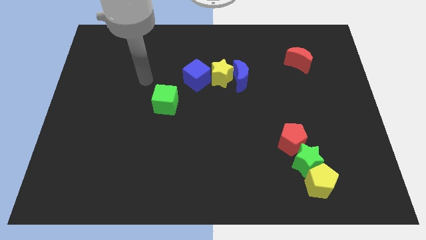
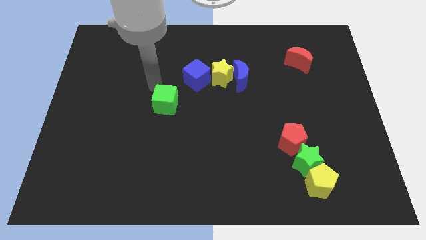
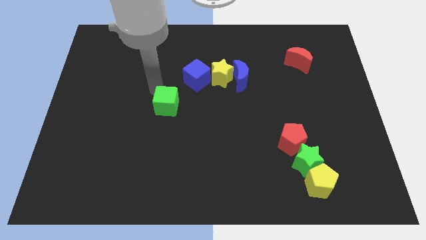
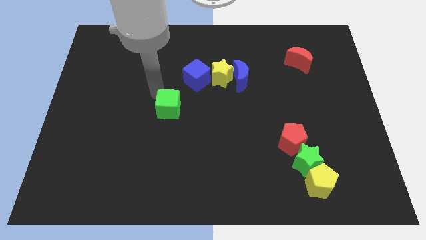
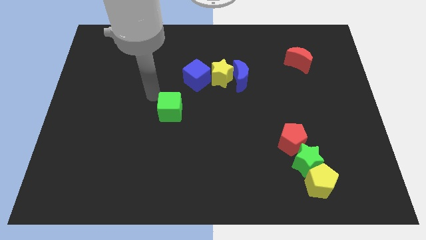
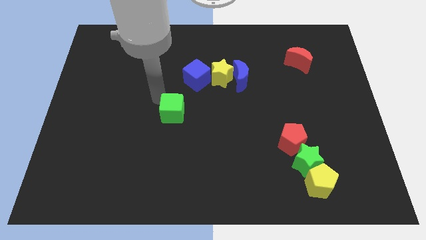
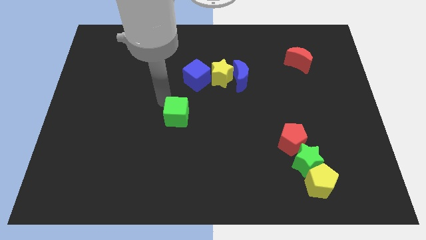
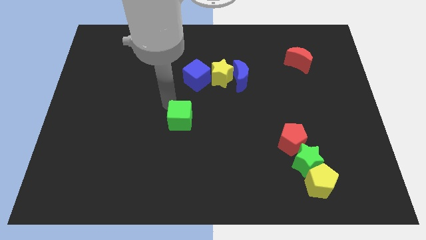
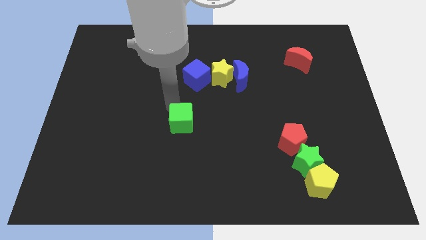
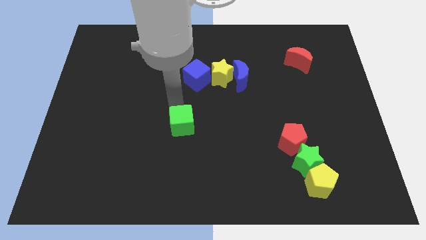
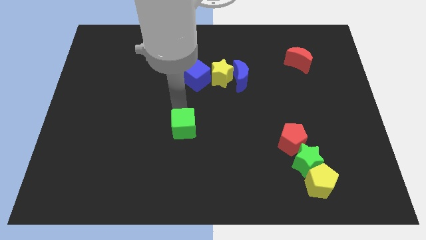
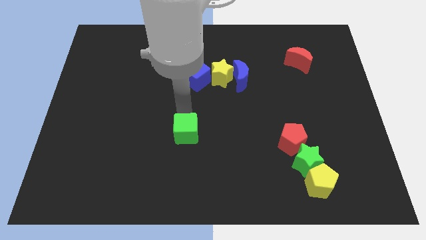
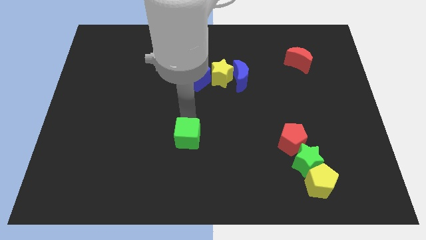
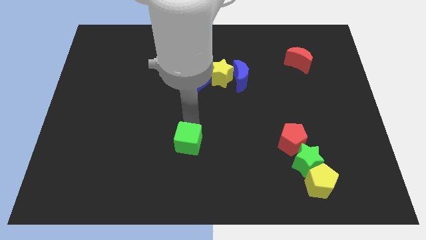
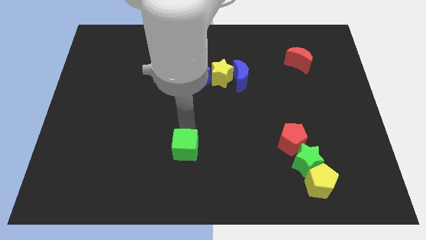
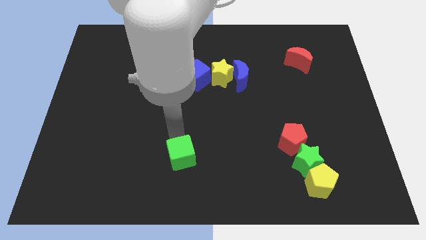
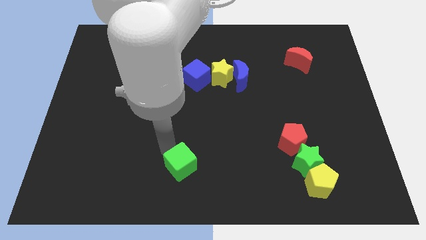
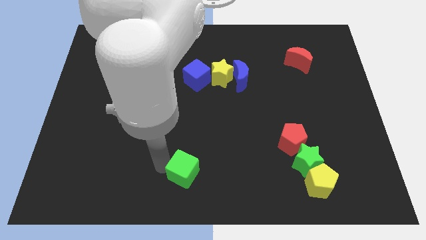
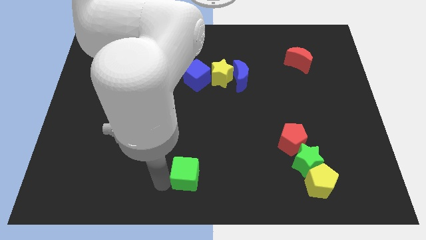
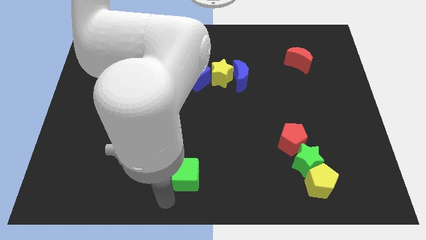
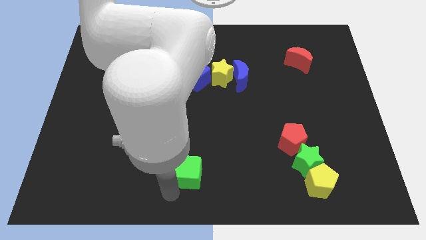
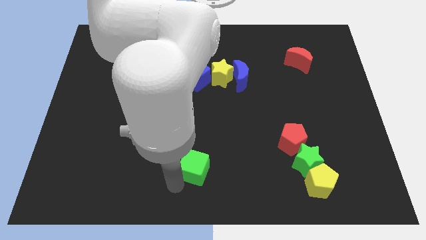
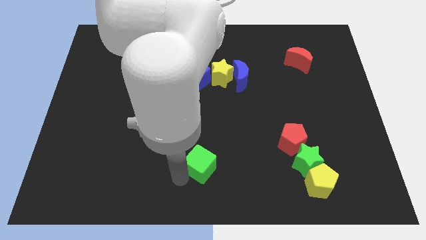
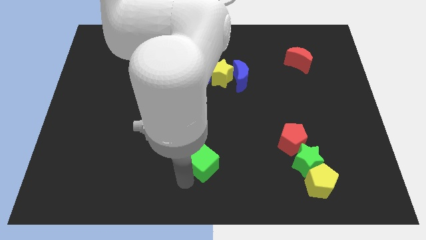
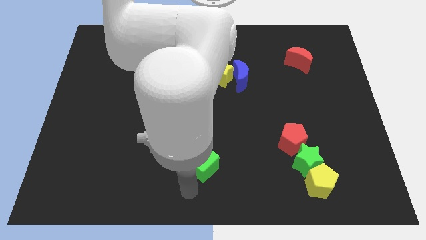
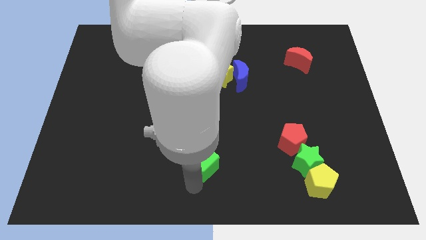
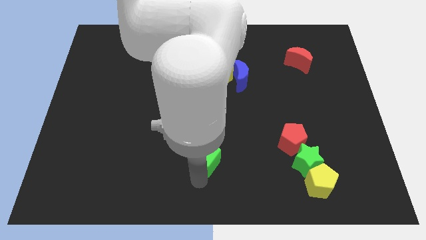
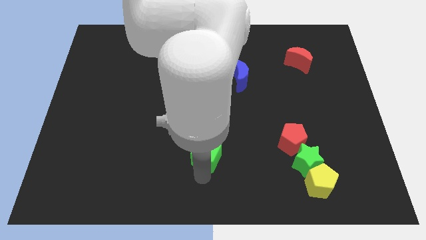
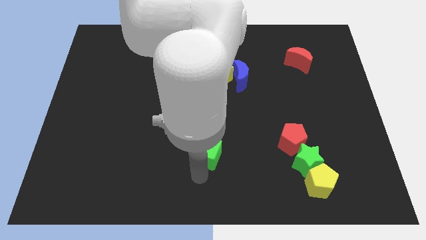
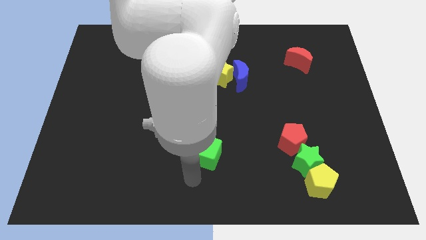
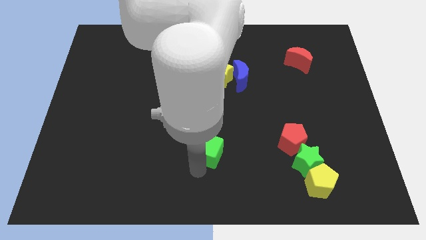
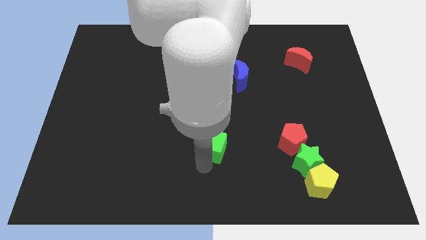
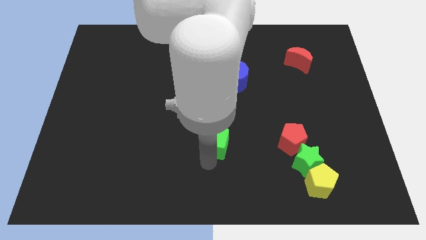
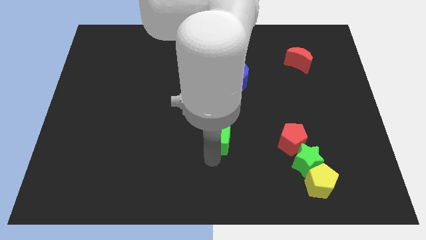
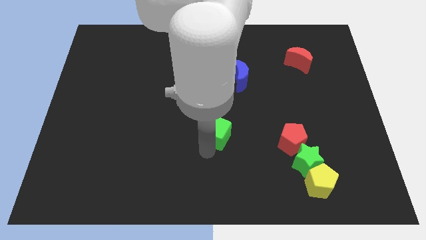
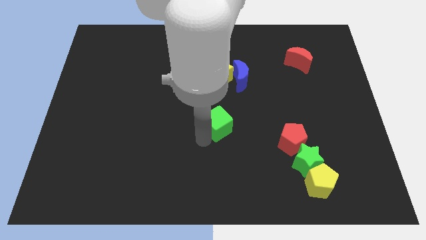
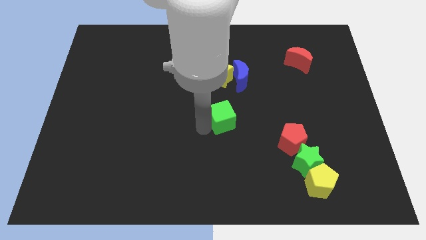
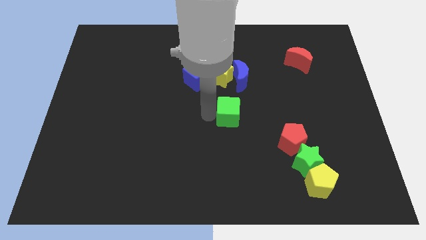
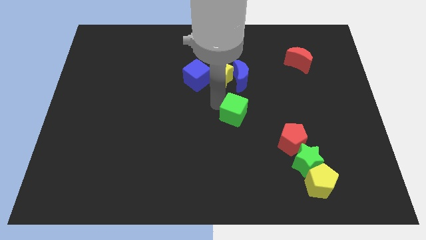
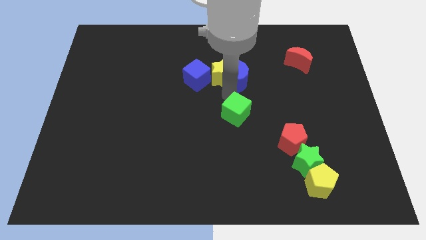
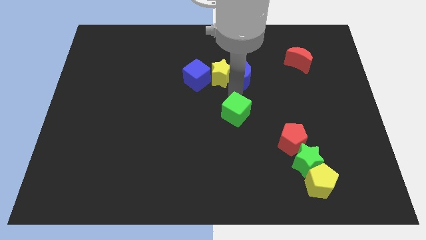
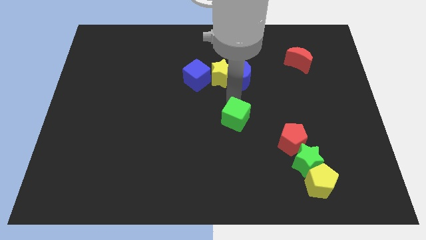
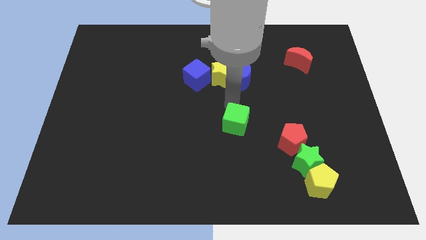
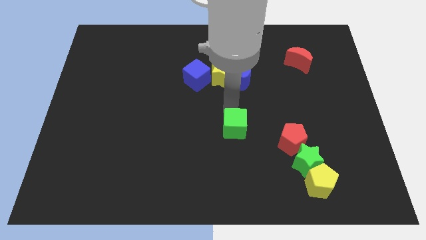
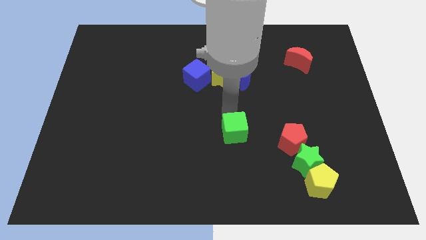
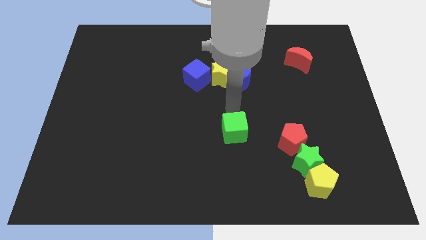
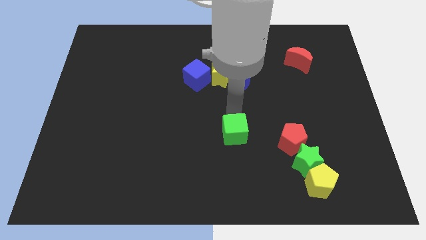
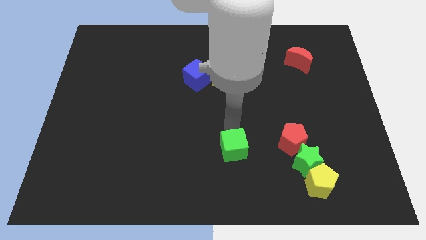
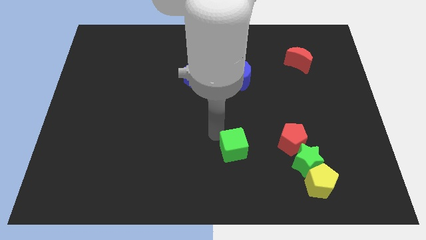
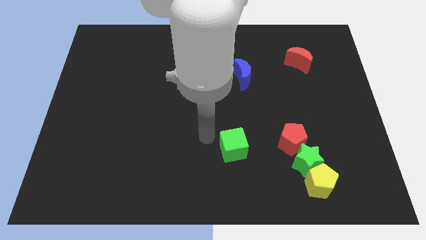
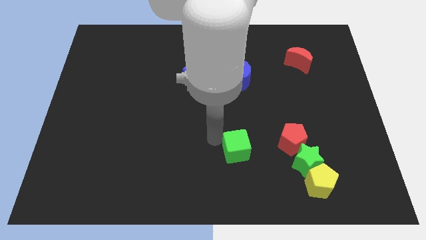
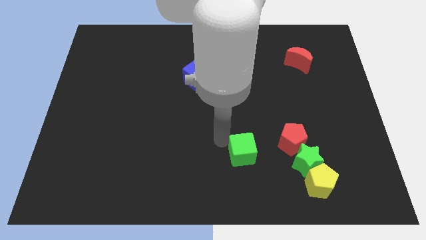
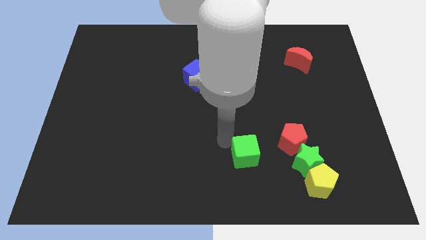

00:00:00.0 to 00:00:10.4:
put the green cube to the bottom left of the red pentagon

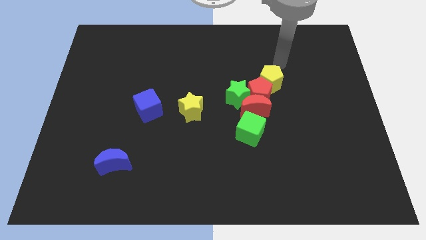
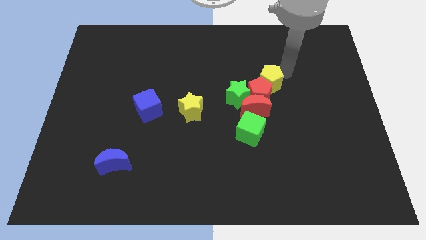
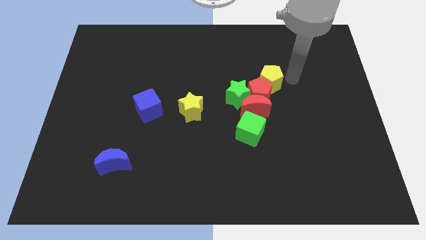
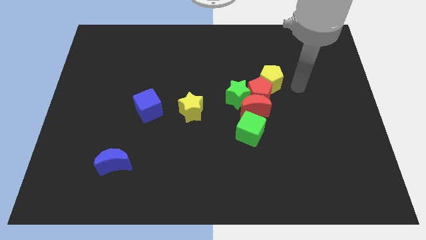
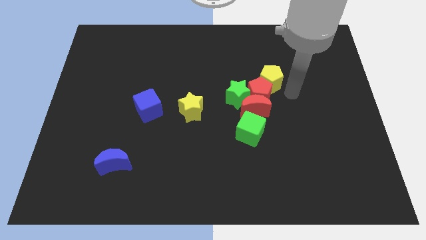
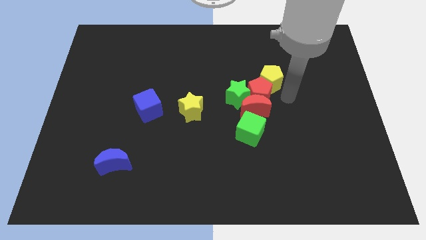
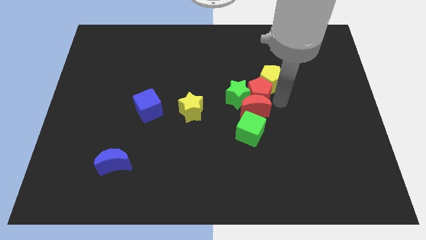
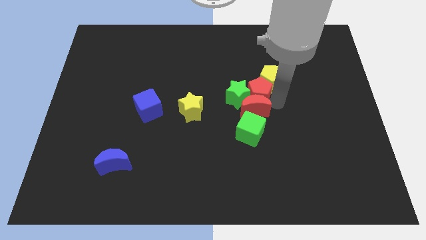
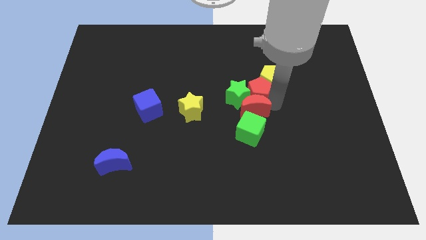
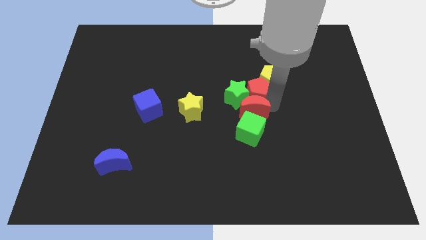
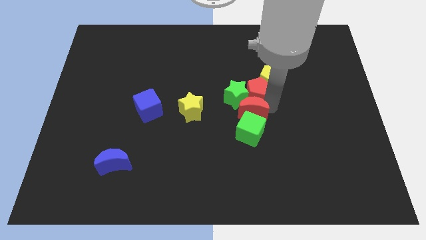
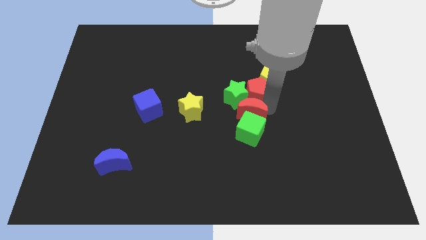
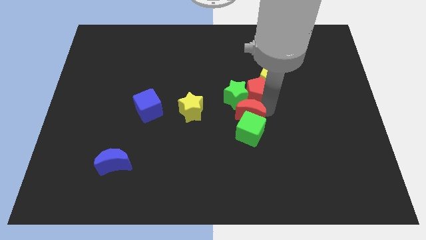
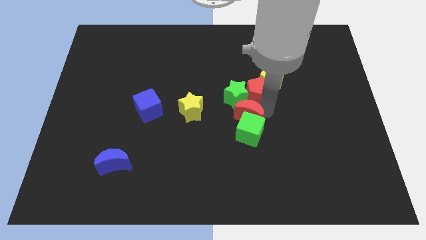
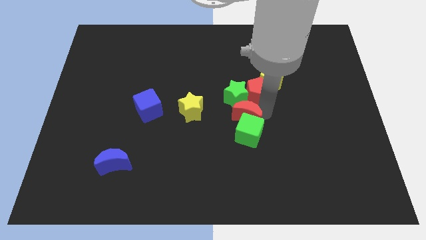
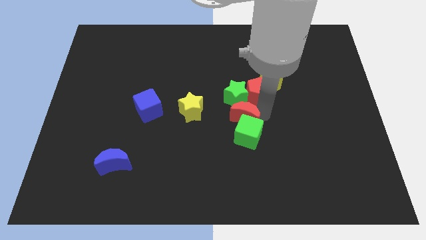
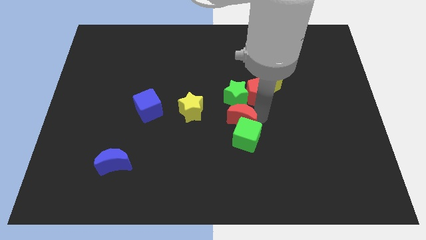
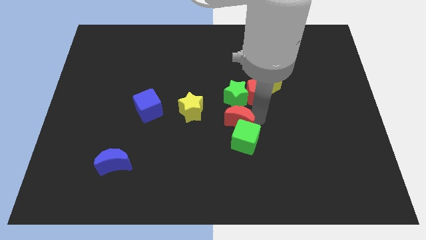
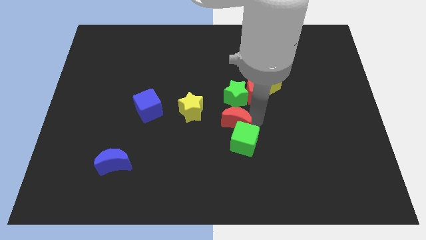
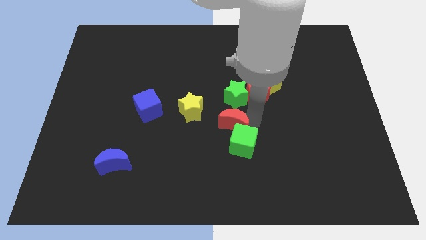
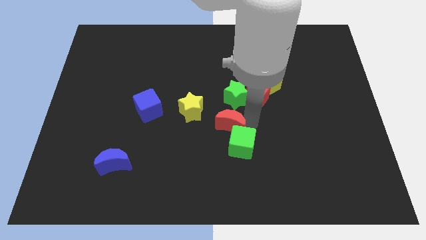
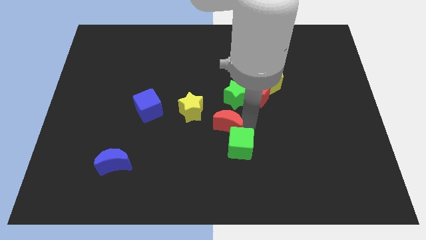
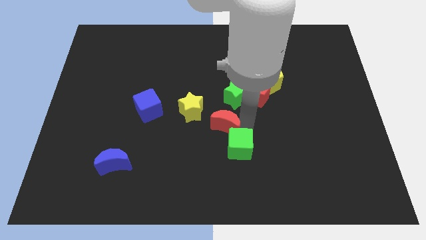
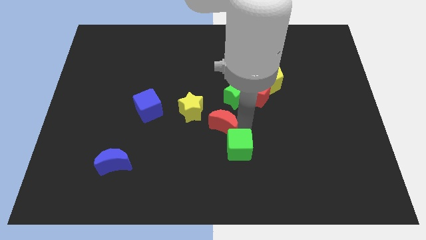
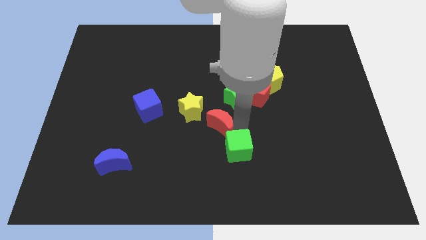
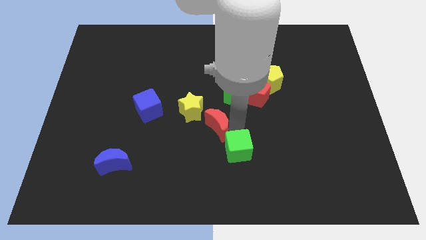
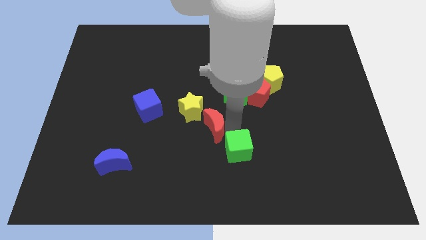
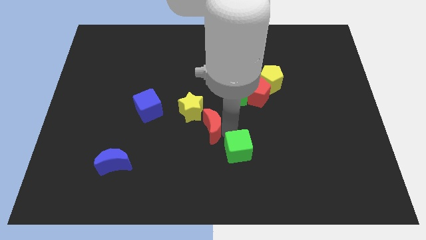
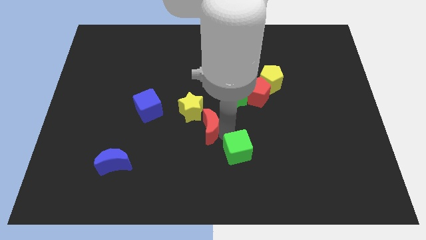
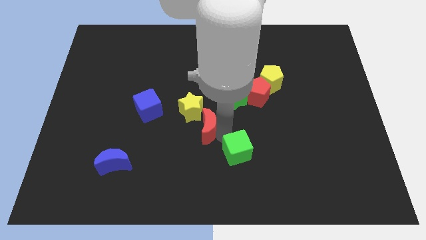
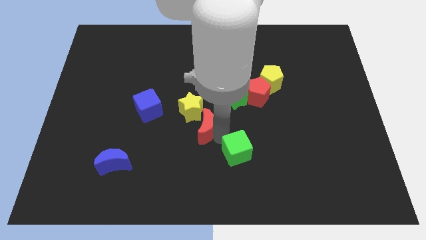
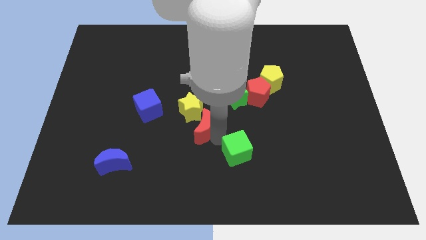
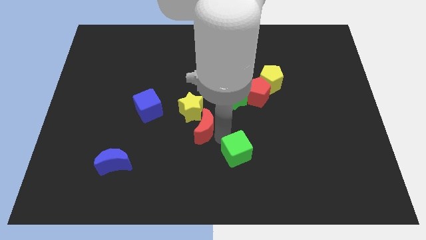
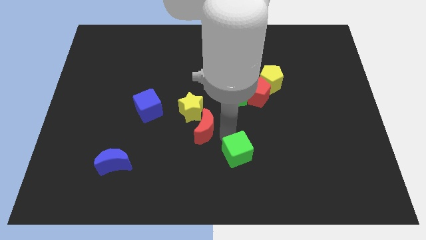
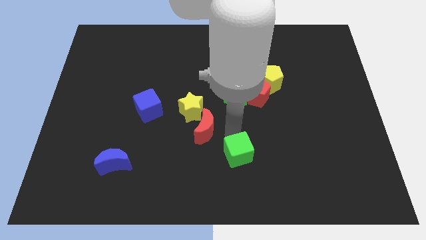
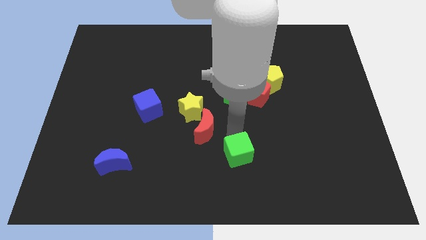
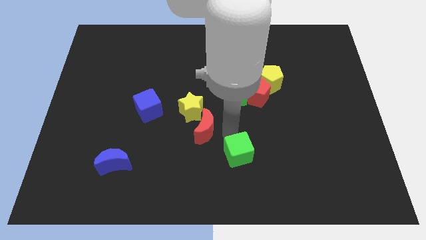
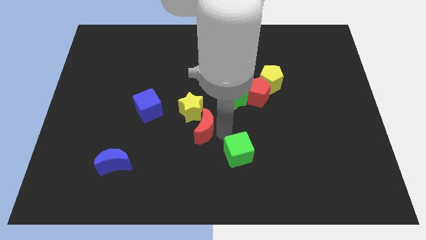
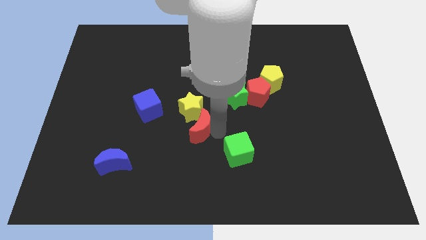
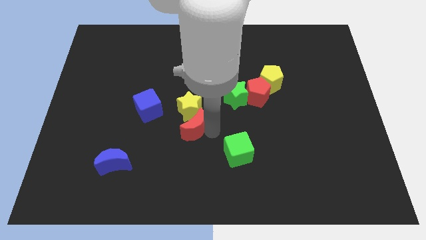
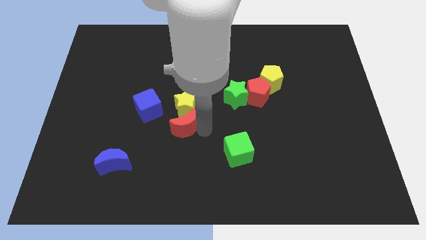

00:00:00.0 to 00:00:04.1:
push the red moon to the bottom left of the yellow star
